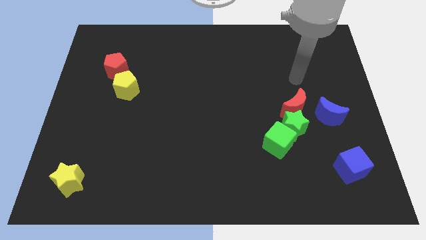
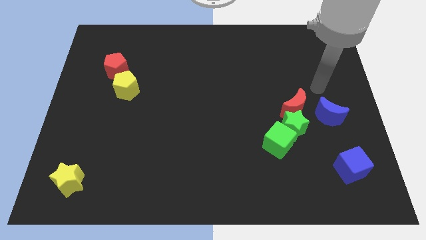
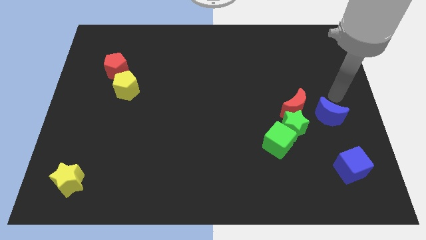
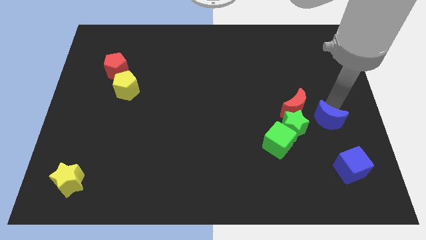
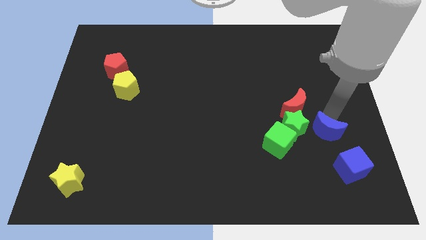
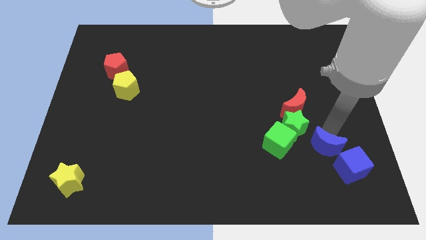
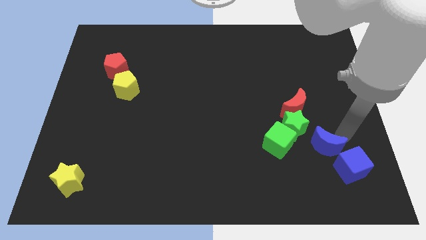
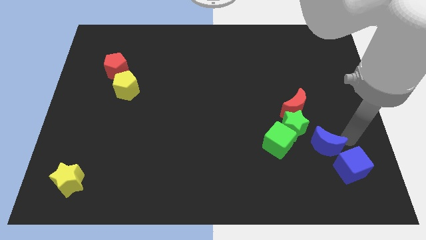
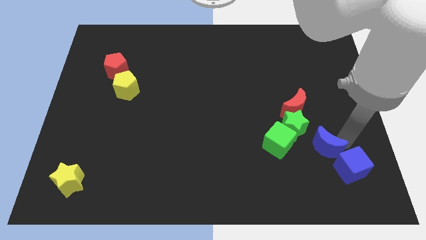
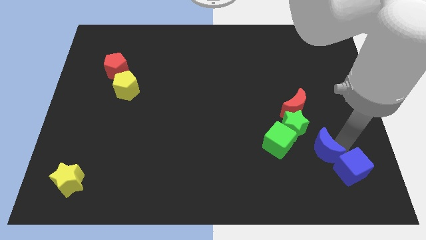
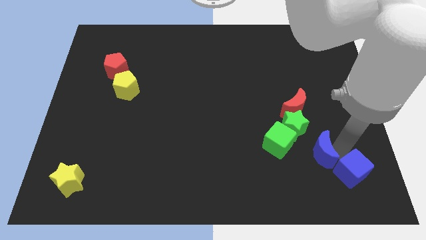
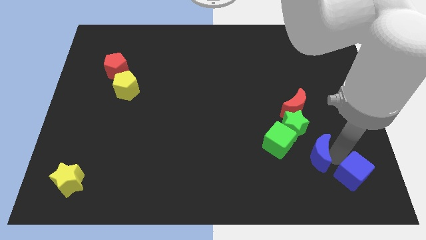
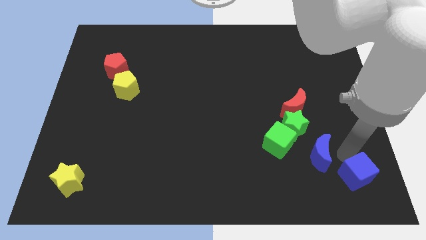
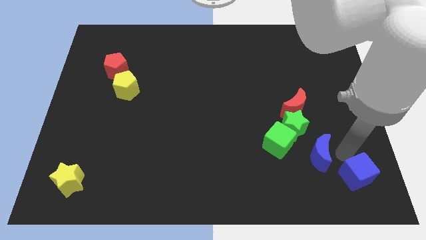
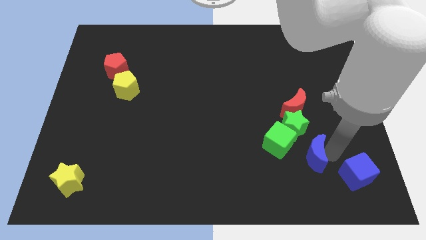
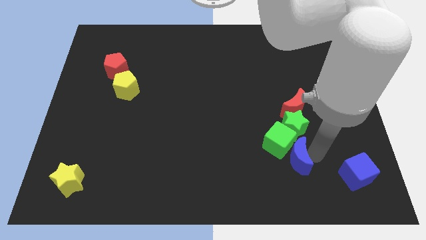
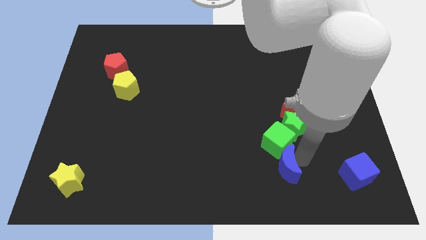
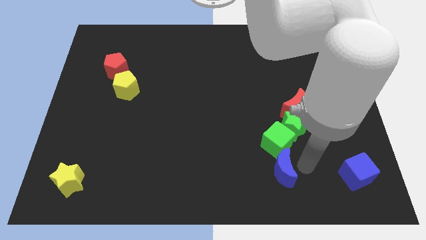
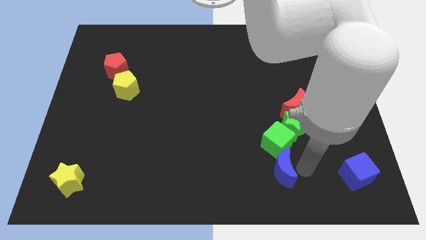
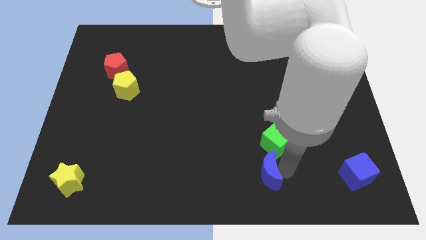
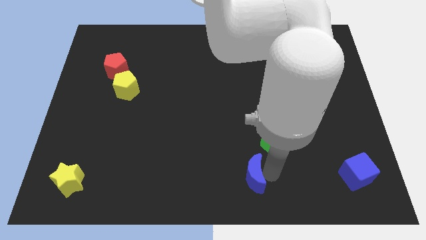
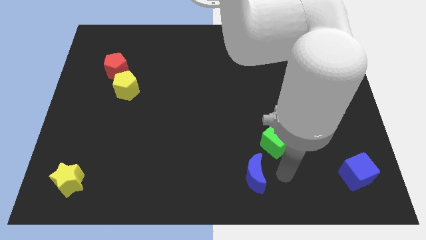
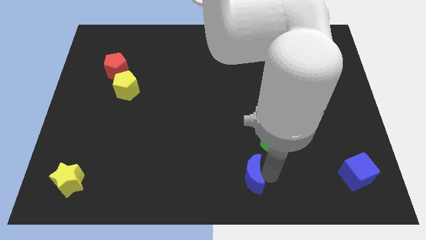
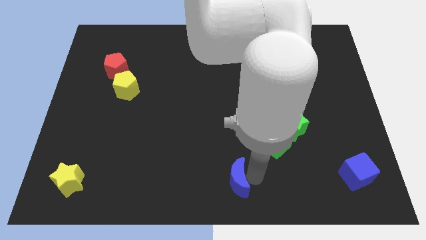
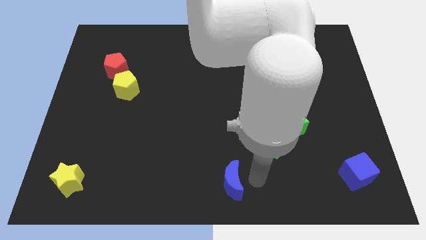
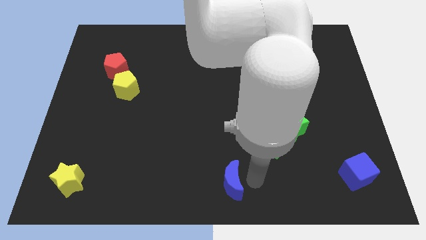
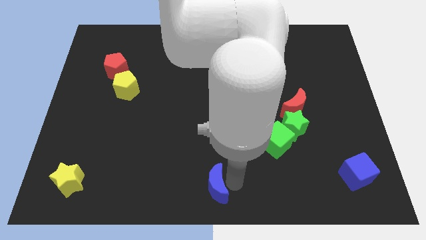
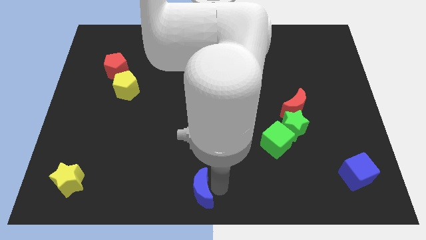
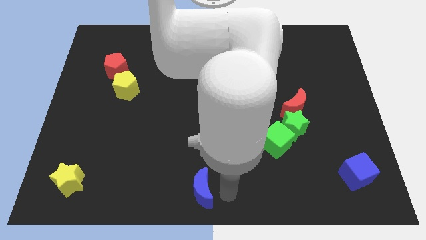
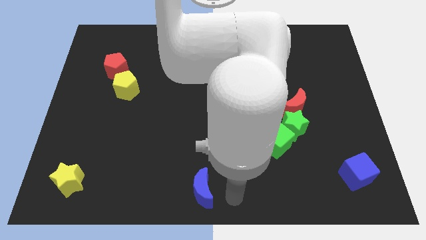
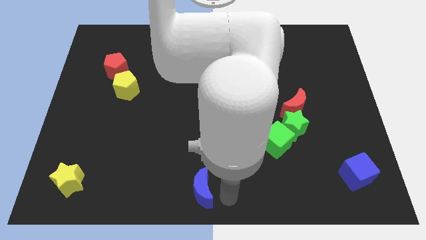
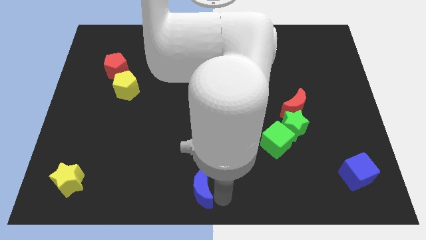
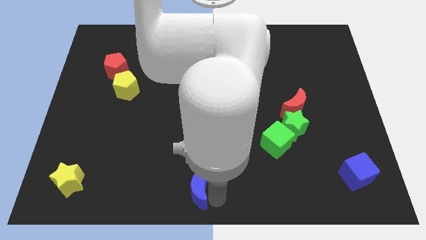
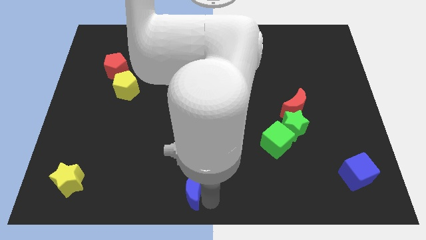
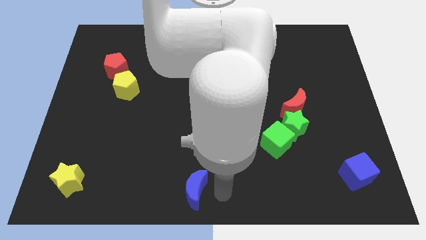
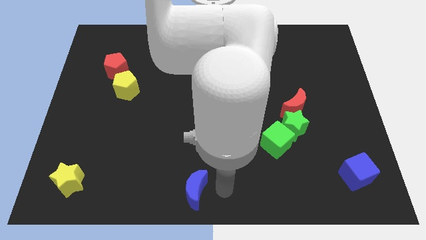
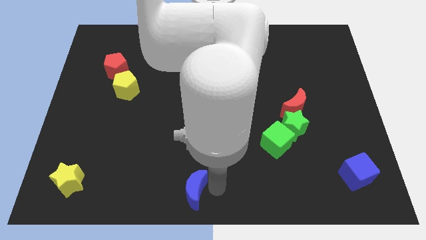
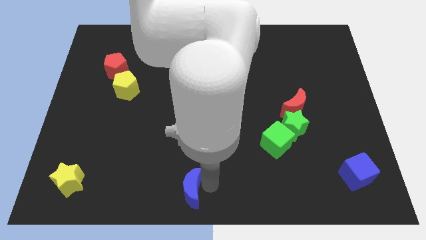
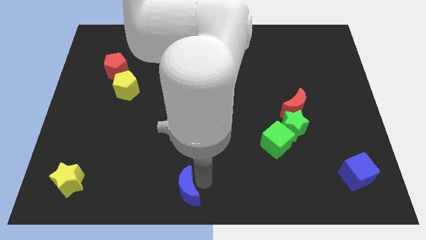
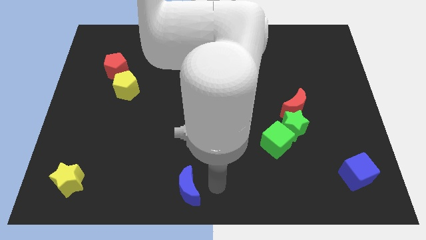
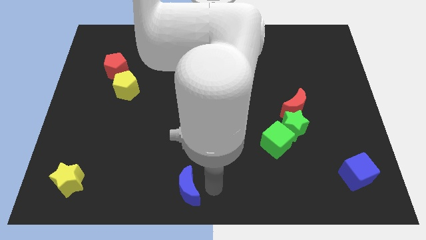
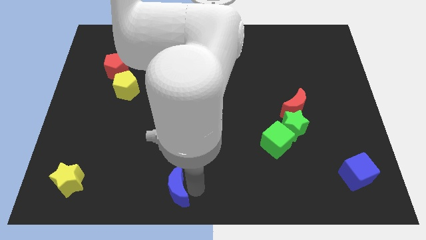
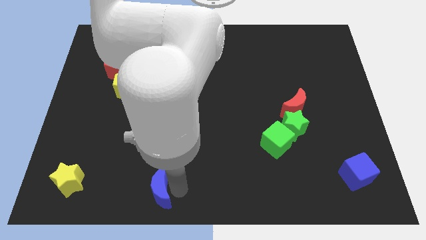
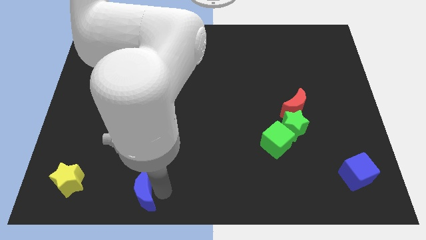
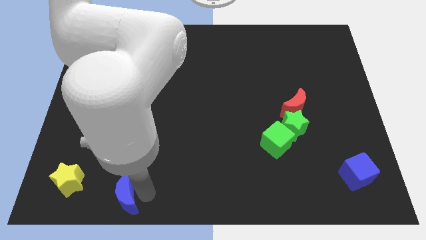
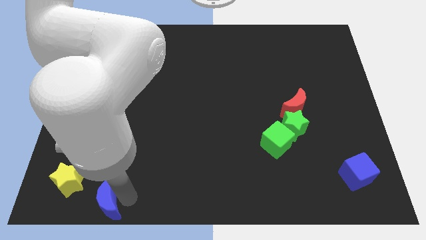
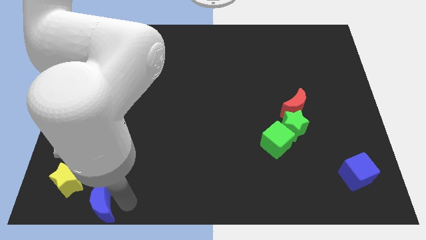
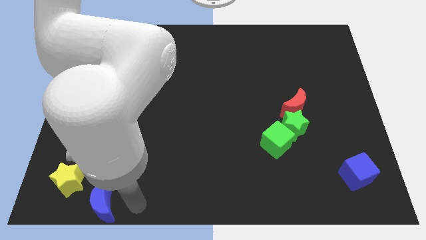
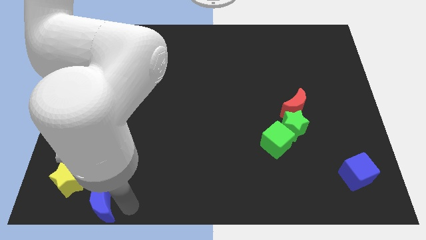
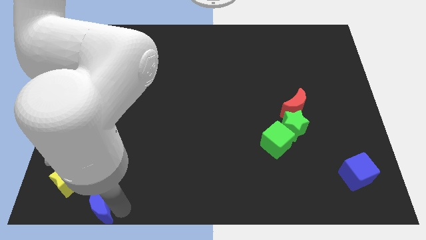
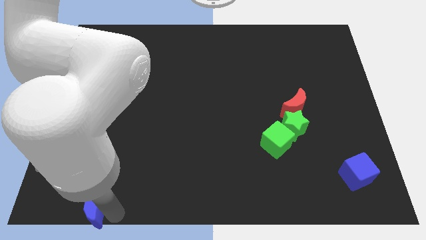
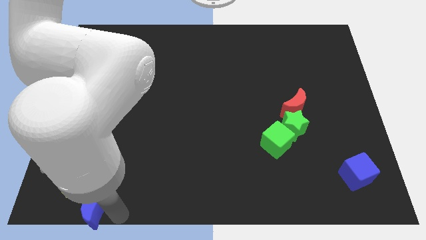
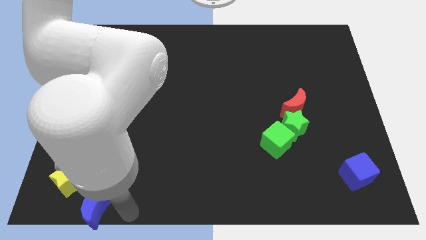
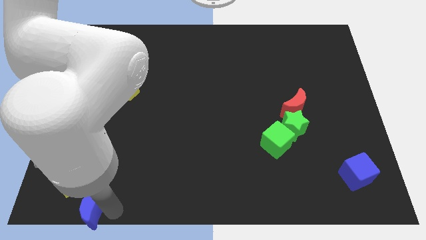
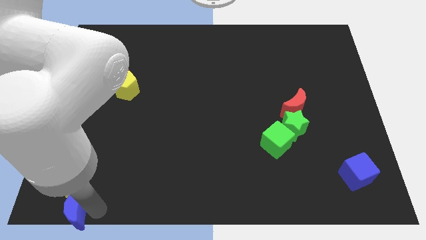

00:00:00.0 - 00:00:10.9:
put the blue moon to the bottom left of the board
